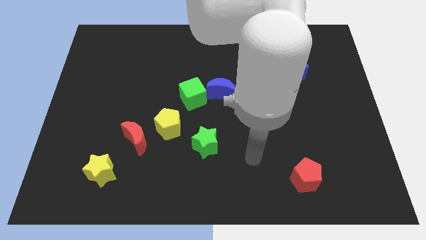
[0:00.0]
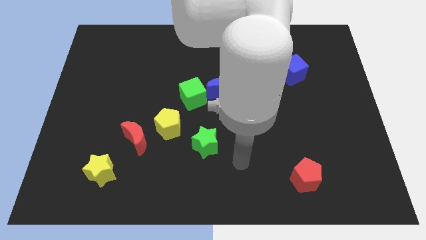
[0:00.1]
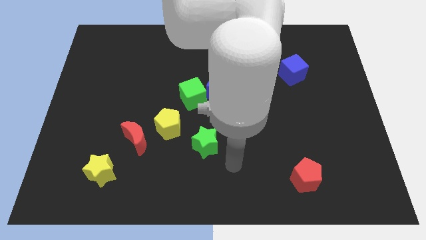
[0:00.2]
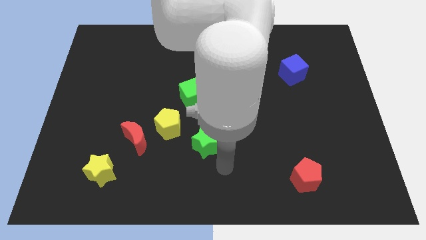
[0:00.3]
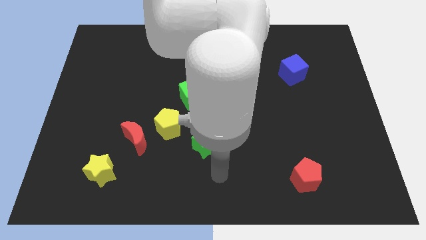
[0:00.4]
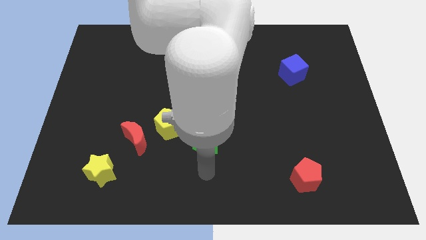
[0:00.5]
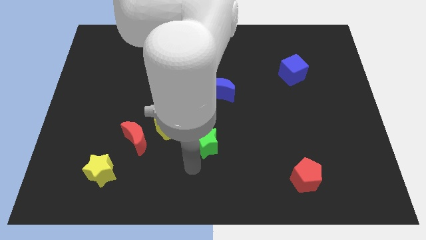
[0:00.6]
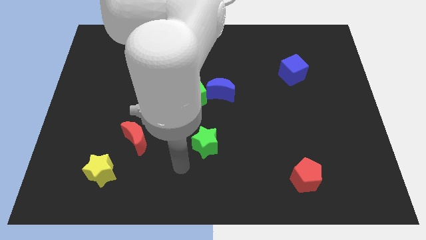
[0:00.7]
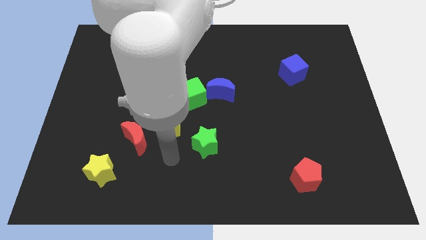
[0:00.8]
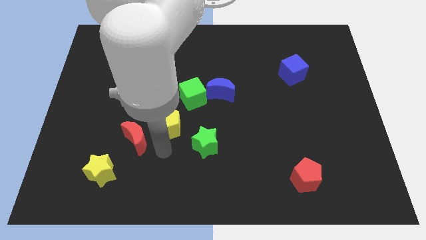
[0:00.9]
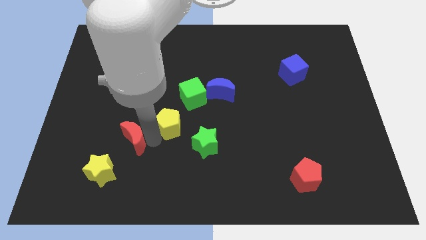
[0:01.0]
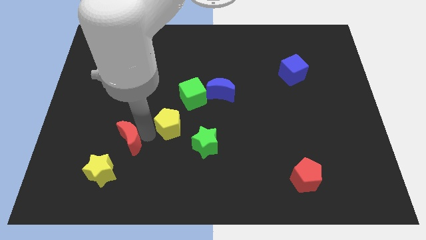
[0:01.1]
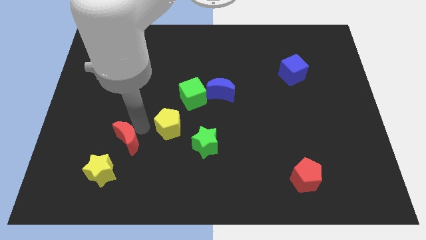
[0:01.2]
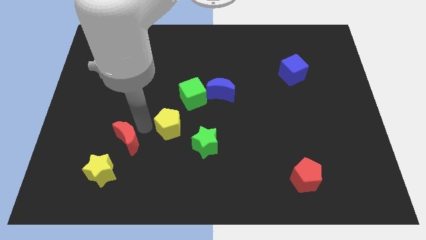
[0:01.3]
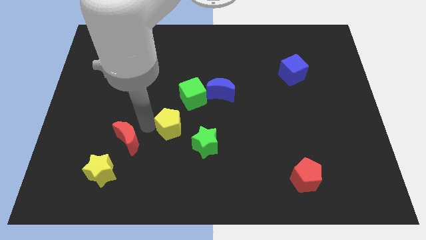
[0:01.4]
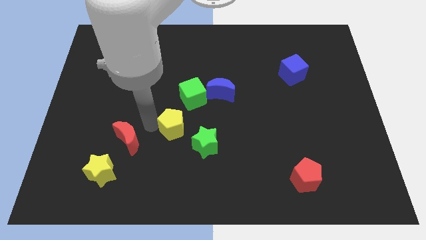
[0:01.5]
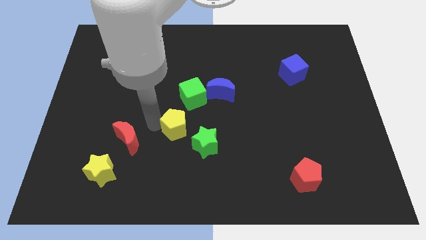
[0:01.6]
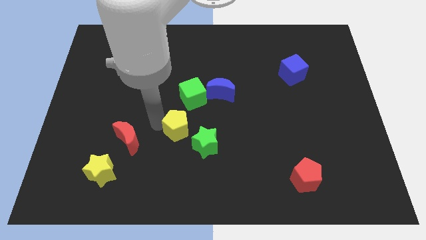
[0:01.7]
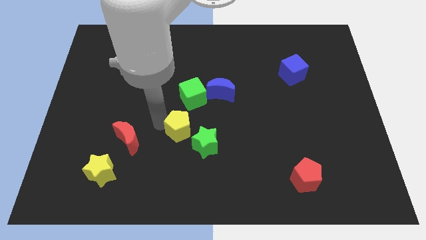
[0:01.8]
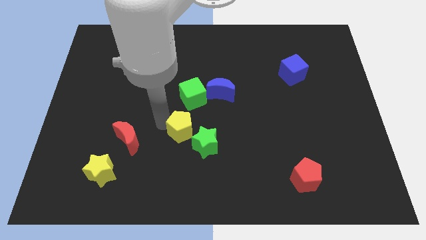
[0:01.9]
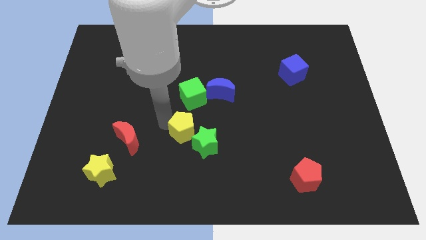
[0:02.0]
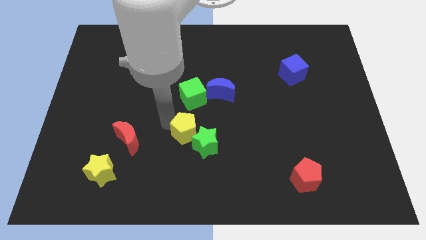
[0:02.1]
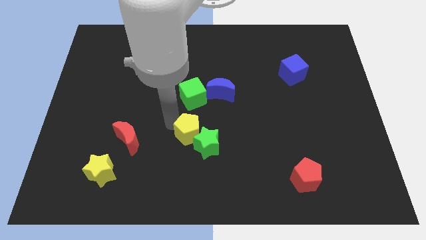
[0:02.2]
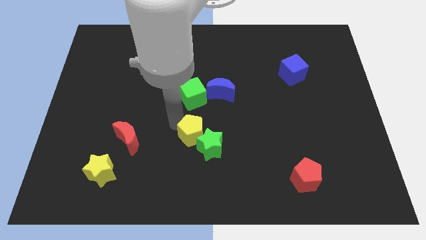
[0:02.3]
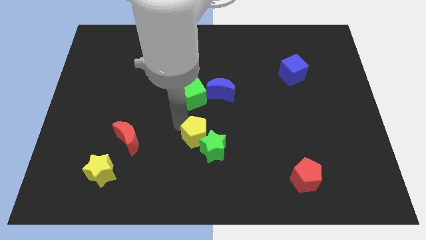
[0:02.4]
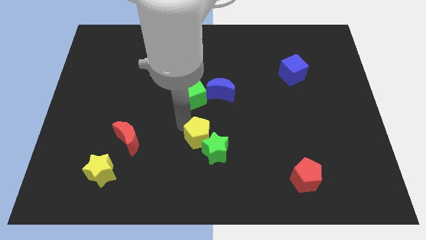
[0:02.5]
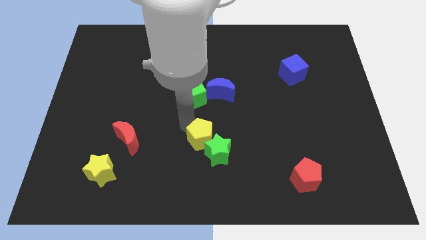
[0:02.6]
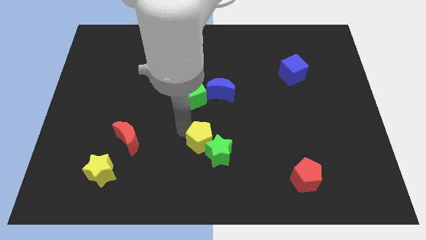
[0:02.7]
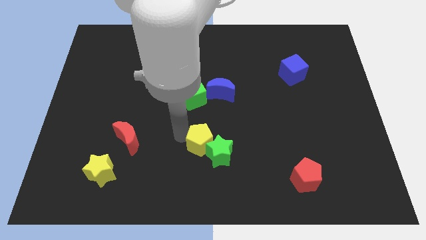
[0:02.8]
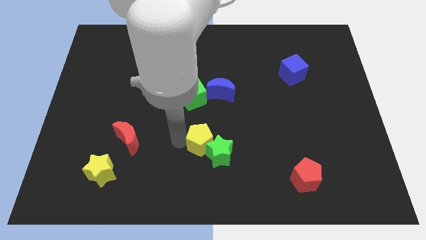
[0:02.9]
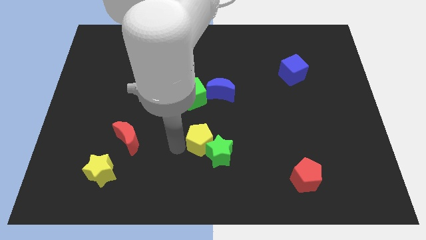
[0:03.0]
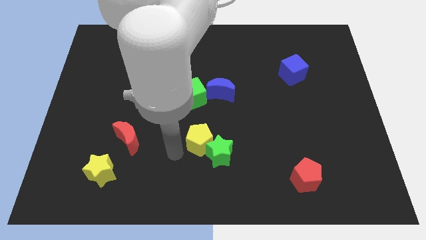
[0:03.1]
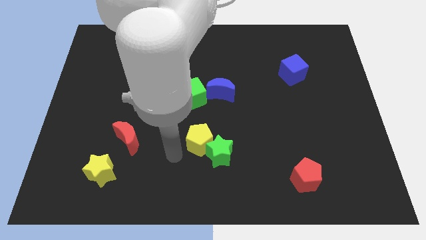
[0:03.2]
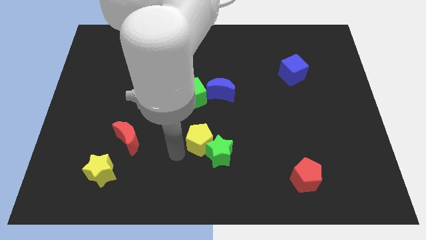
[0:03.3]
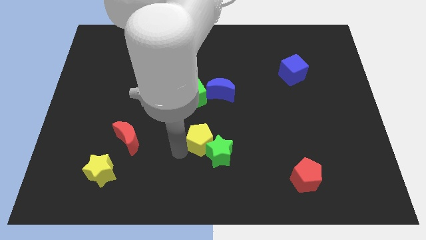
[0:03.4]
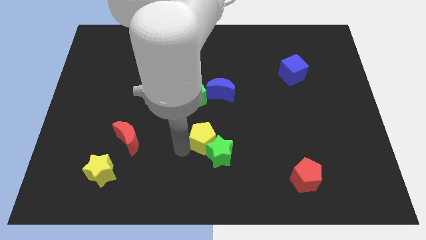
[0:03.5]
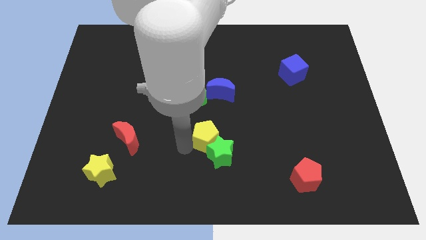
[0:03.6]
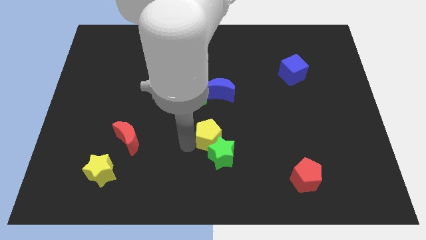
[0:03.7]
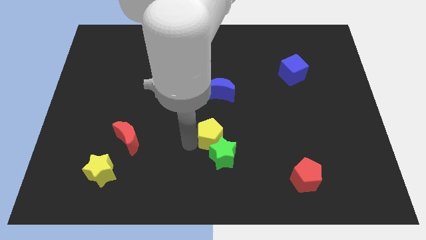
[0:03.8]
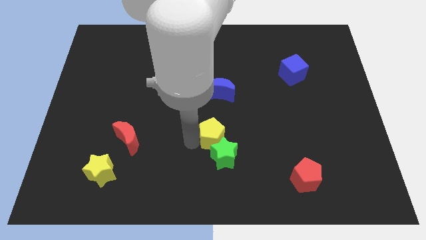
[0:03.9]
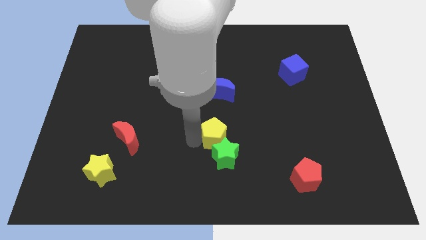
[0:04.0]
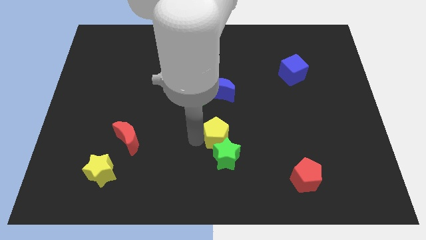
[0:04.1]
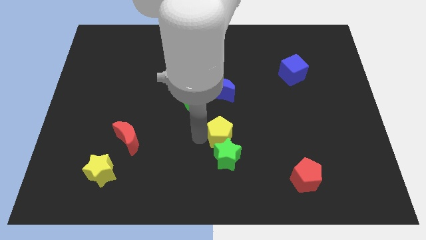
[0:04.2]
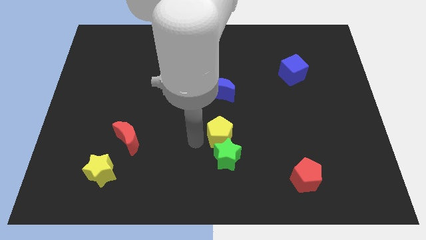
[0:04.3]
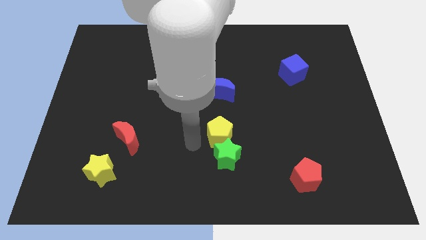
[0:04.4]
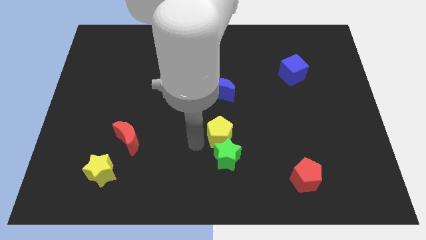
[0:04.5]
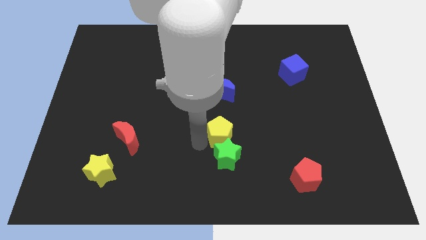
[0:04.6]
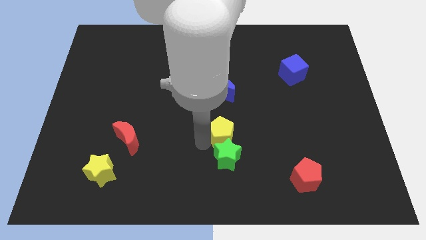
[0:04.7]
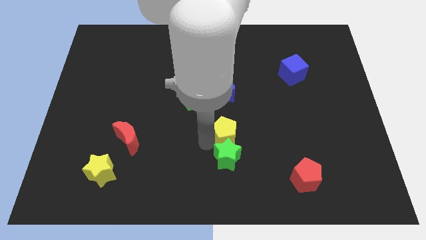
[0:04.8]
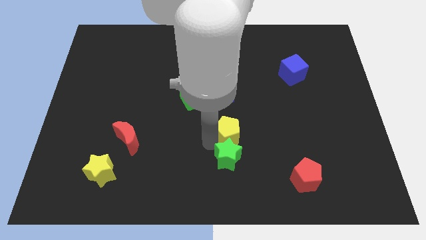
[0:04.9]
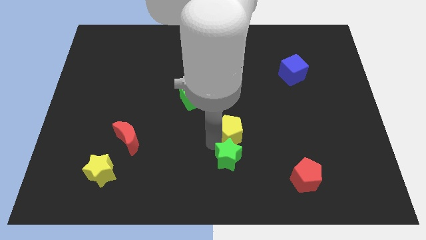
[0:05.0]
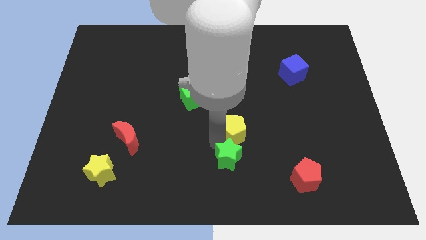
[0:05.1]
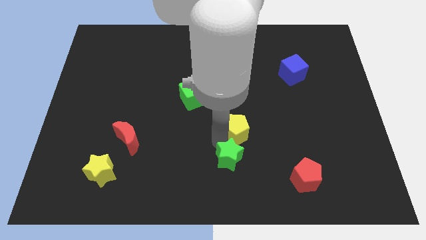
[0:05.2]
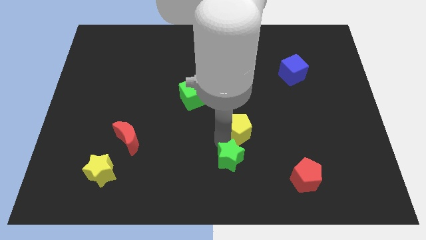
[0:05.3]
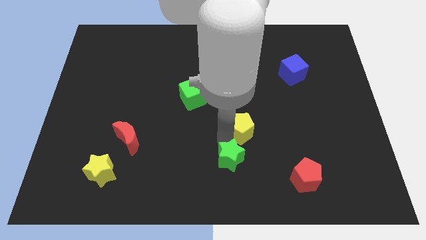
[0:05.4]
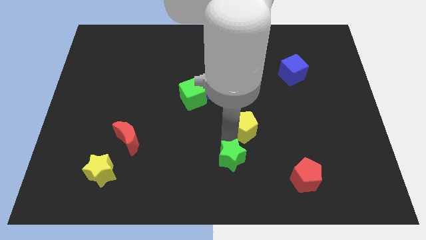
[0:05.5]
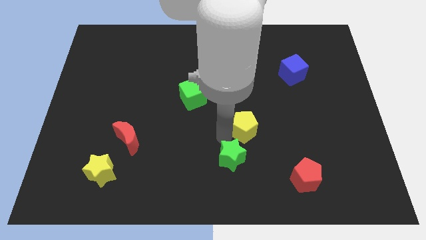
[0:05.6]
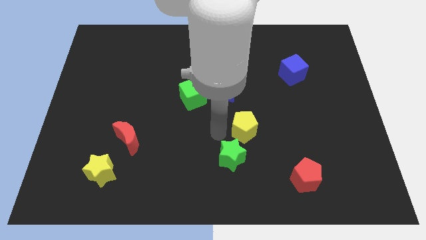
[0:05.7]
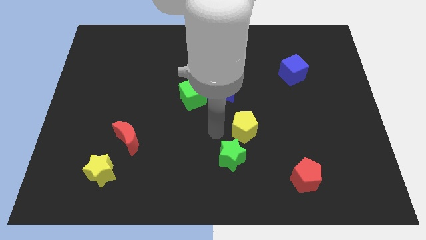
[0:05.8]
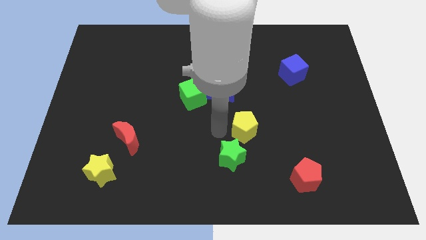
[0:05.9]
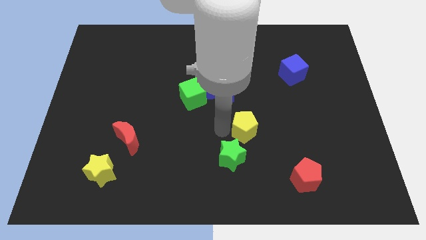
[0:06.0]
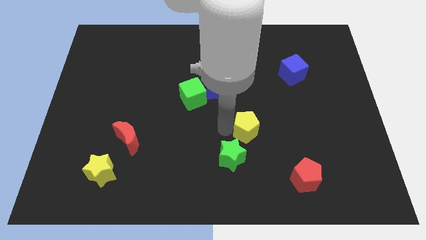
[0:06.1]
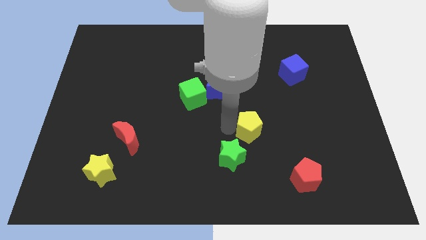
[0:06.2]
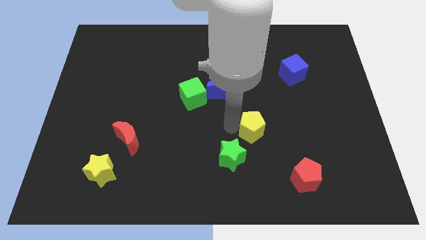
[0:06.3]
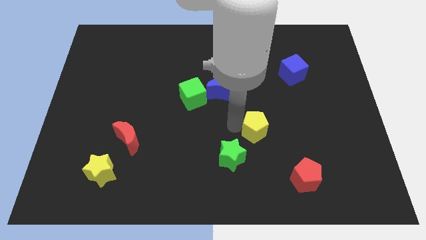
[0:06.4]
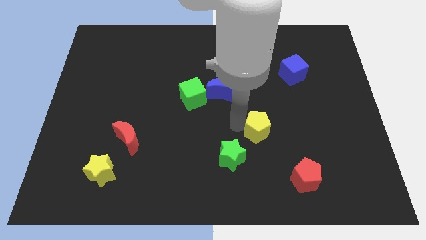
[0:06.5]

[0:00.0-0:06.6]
push the yellow pentagon to the right

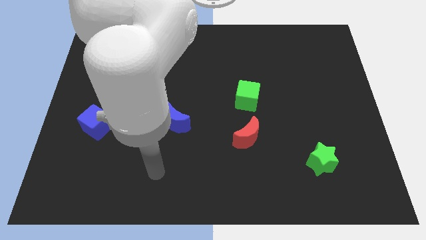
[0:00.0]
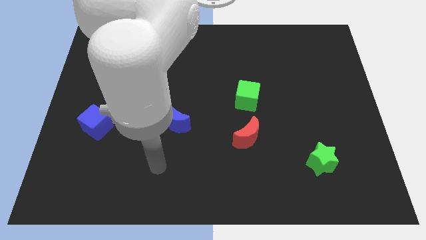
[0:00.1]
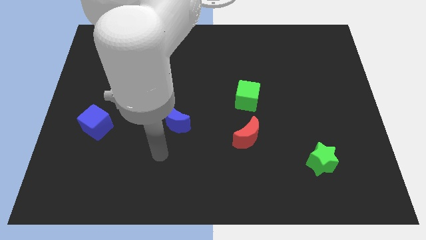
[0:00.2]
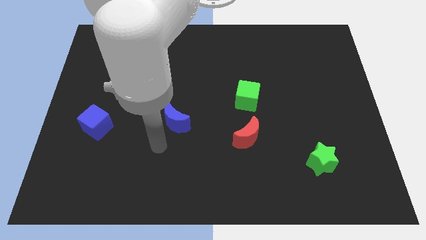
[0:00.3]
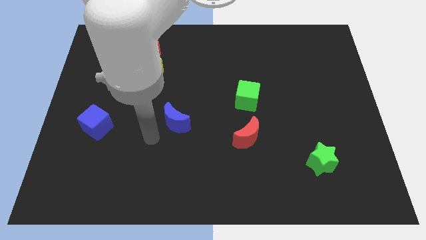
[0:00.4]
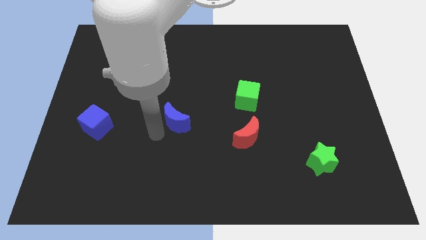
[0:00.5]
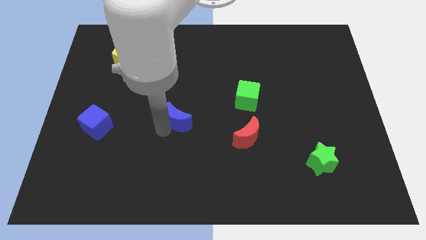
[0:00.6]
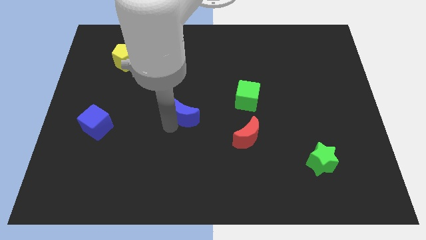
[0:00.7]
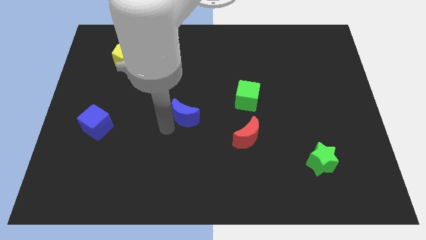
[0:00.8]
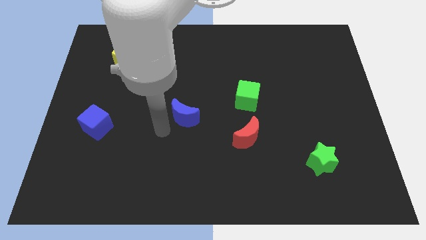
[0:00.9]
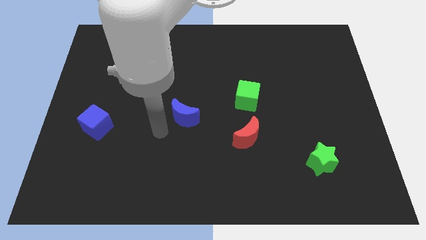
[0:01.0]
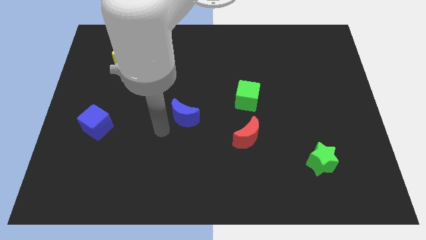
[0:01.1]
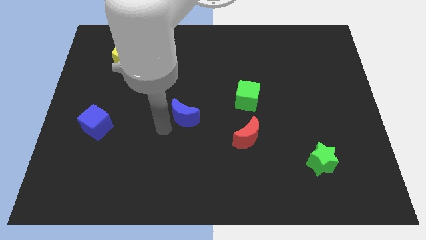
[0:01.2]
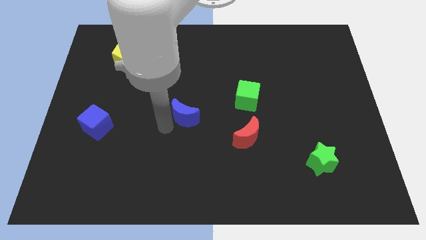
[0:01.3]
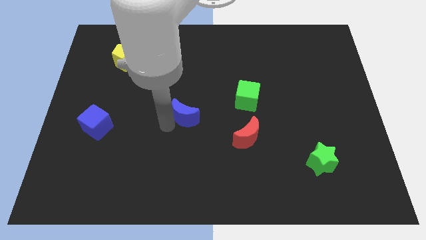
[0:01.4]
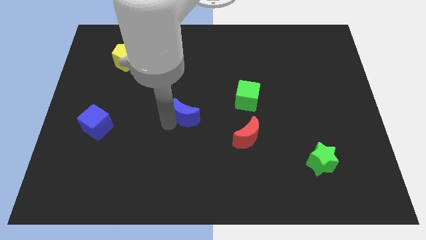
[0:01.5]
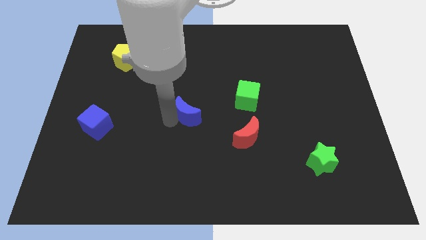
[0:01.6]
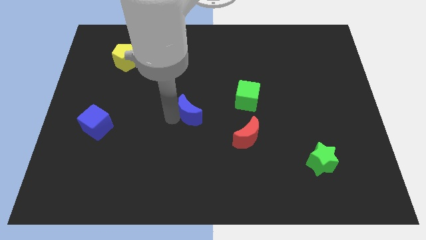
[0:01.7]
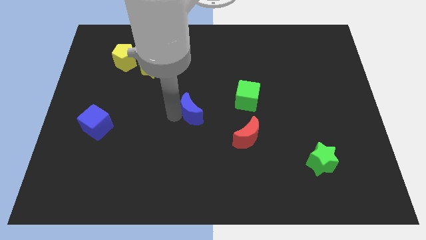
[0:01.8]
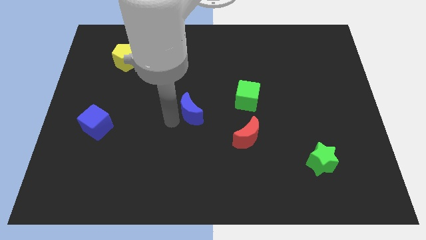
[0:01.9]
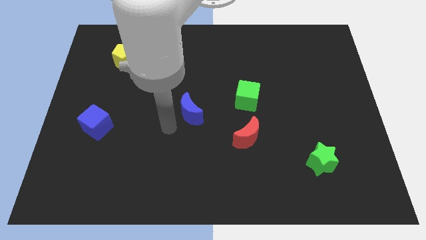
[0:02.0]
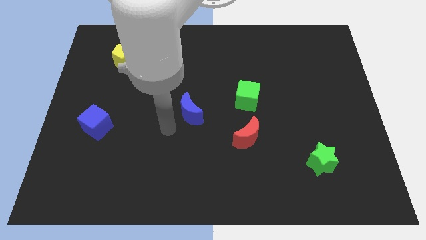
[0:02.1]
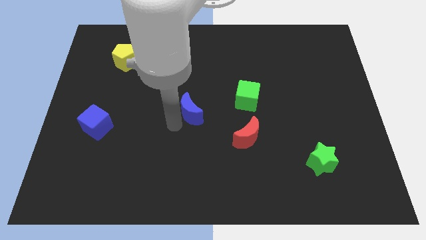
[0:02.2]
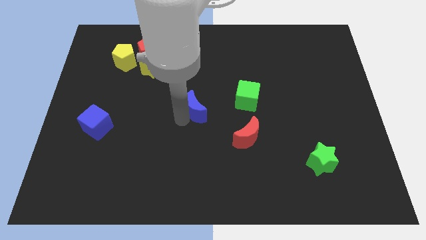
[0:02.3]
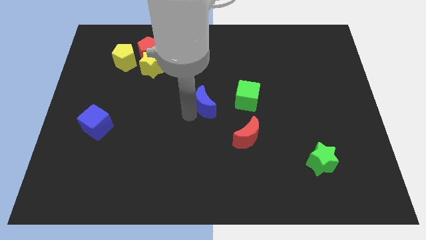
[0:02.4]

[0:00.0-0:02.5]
slide the blue moon upwards and then right a little
